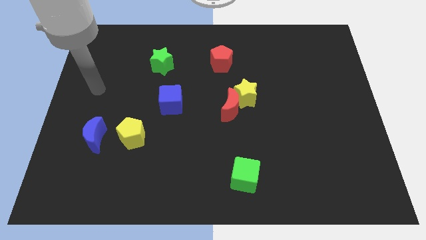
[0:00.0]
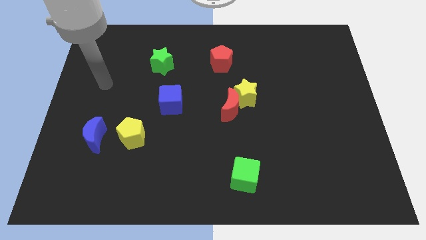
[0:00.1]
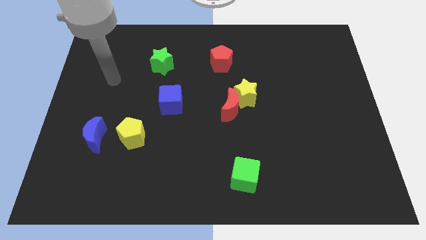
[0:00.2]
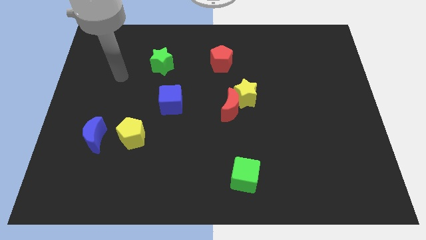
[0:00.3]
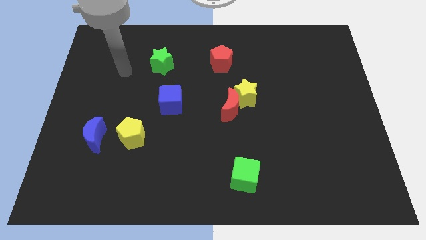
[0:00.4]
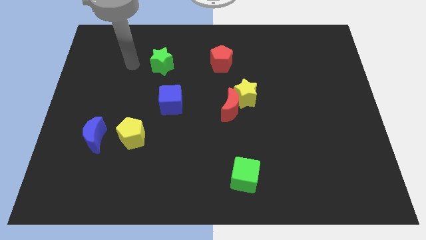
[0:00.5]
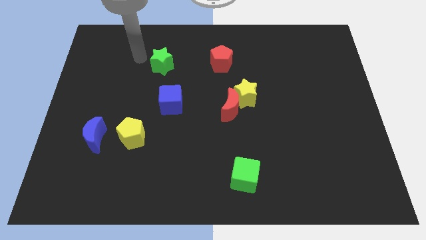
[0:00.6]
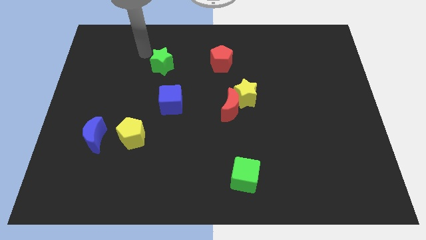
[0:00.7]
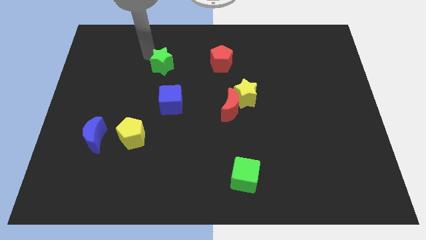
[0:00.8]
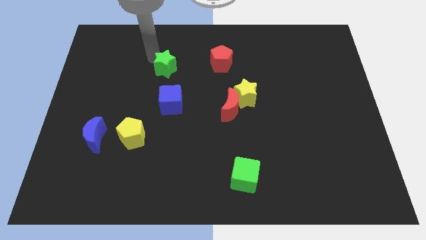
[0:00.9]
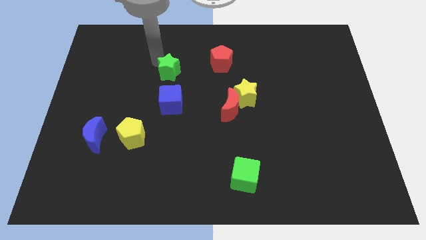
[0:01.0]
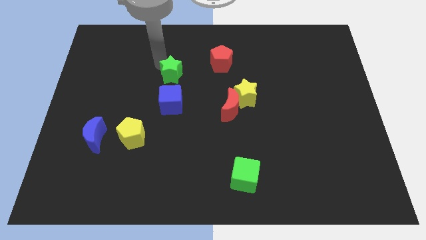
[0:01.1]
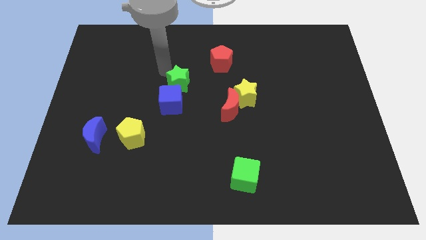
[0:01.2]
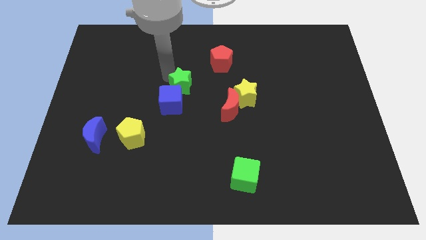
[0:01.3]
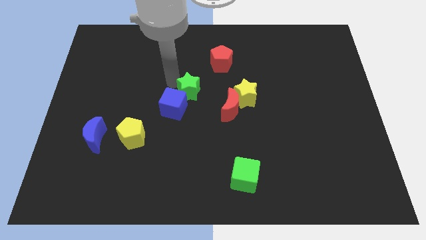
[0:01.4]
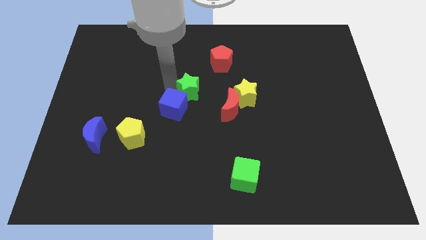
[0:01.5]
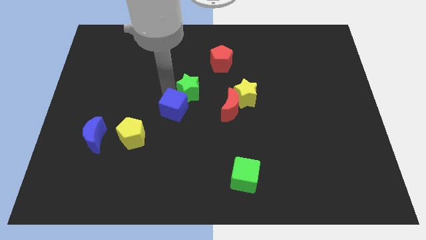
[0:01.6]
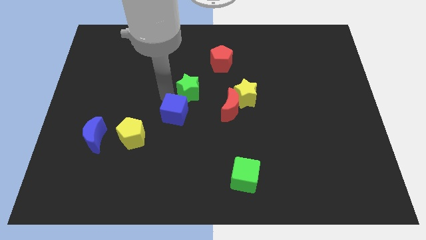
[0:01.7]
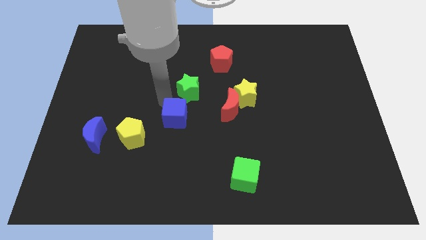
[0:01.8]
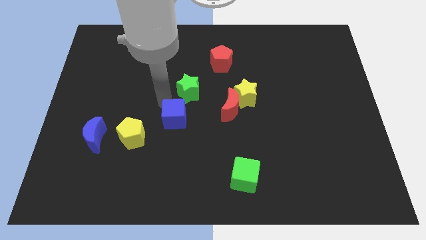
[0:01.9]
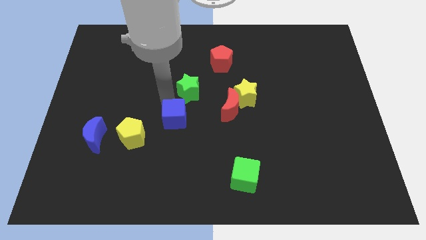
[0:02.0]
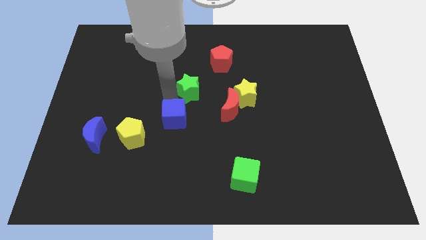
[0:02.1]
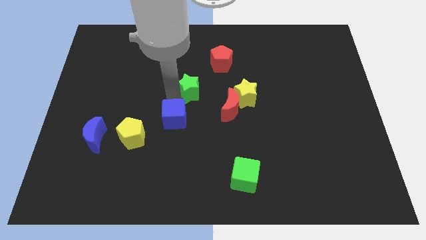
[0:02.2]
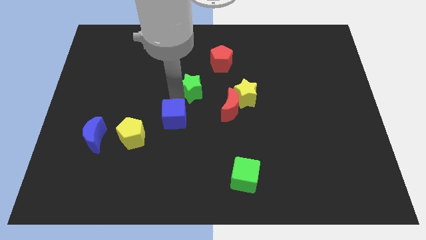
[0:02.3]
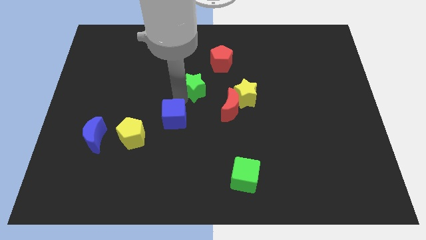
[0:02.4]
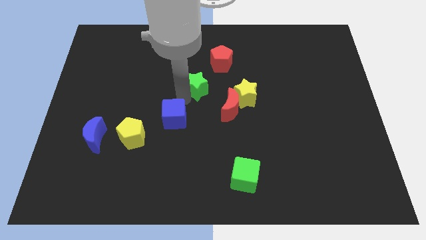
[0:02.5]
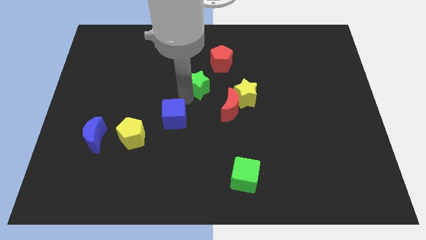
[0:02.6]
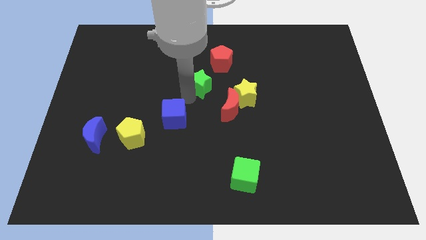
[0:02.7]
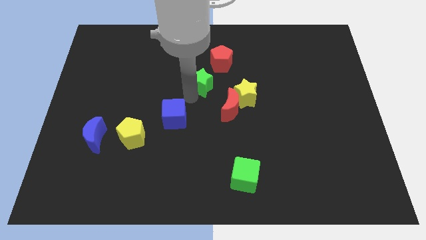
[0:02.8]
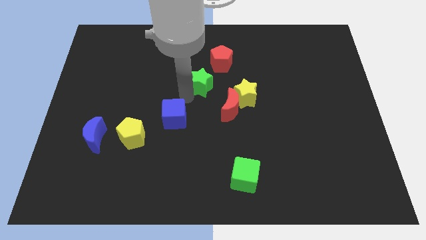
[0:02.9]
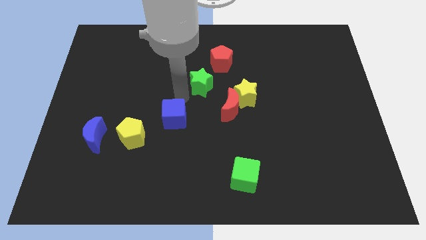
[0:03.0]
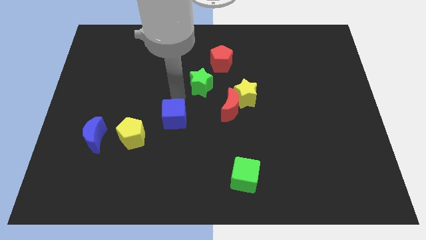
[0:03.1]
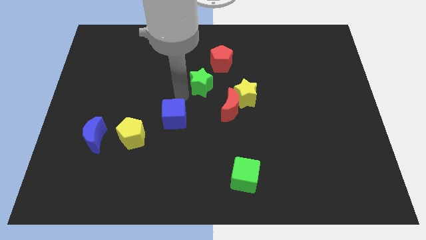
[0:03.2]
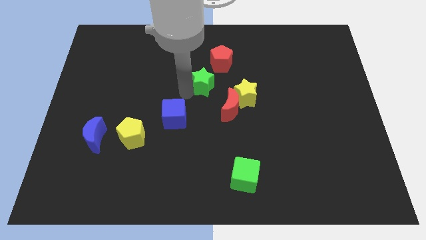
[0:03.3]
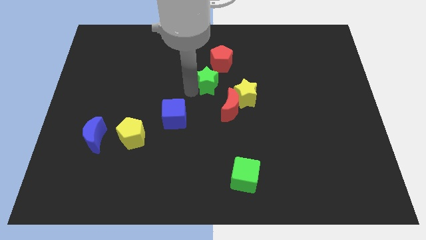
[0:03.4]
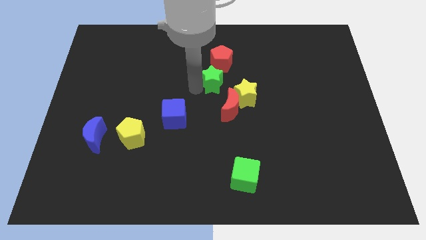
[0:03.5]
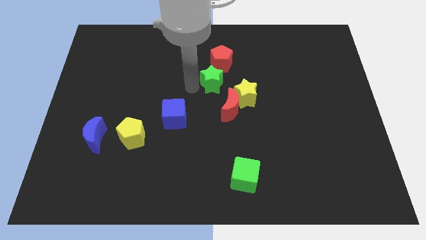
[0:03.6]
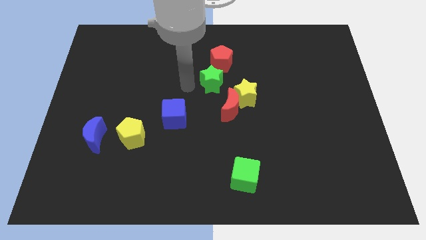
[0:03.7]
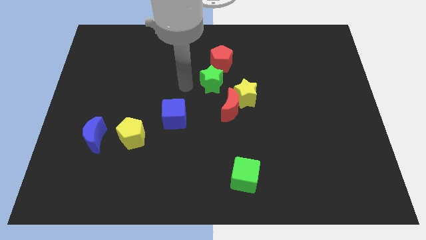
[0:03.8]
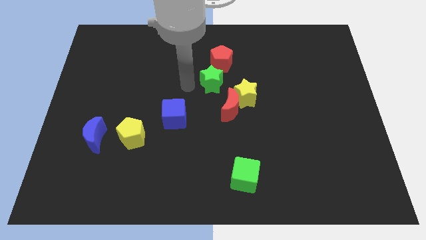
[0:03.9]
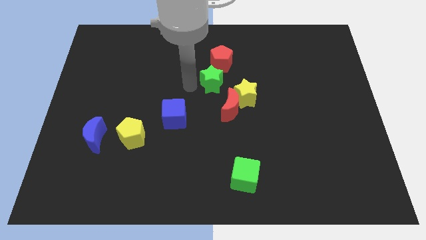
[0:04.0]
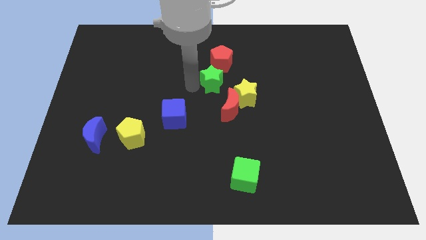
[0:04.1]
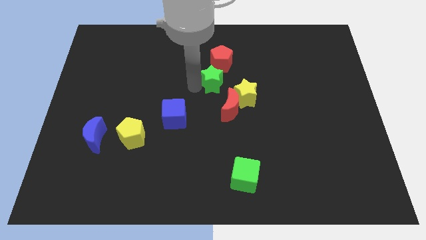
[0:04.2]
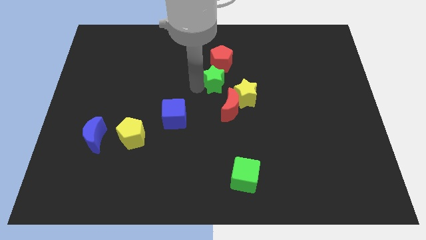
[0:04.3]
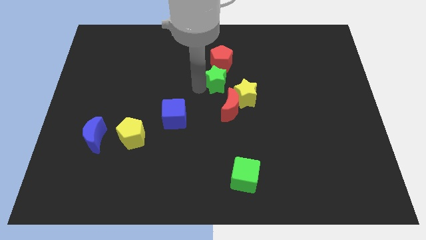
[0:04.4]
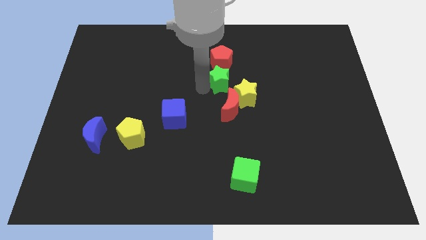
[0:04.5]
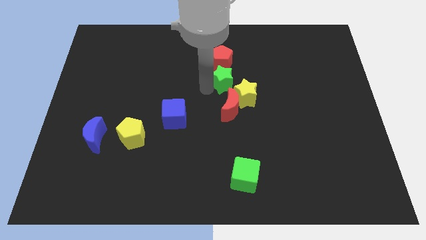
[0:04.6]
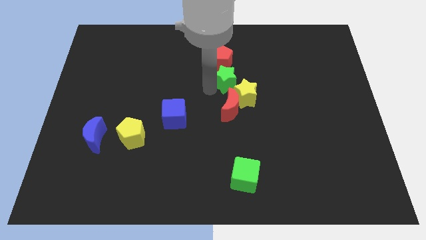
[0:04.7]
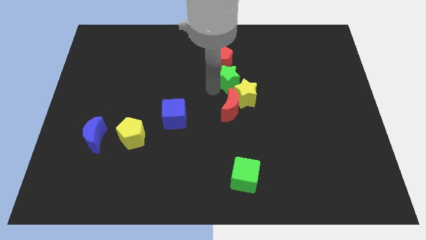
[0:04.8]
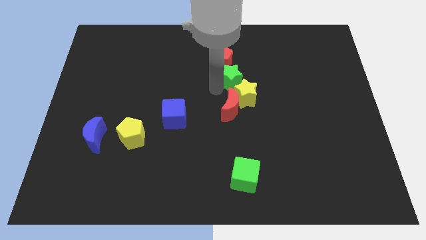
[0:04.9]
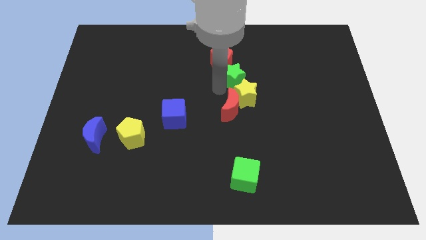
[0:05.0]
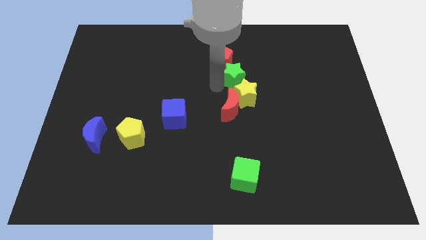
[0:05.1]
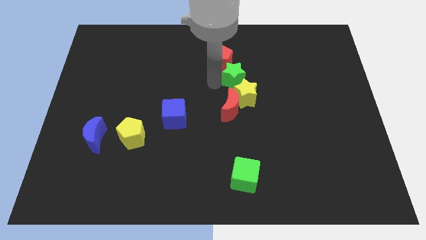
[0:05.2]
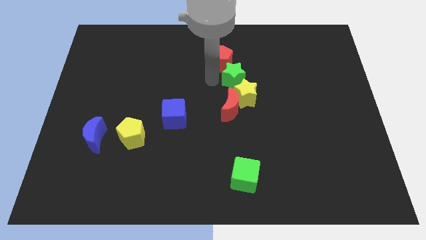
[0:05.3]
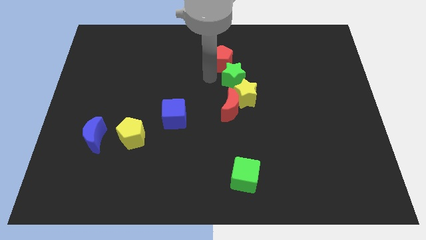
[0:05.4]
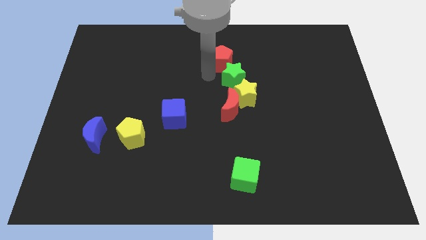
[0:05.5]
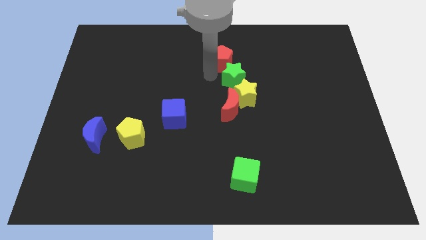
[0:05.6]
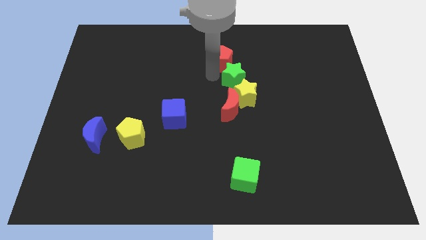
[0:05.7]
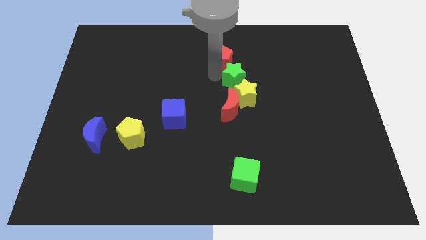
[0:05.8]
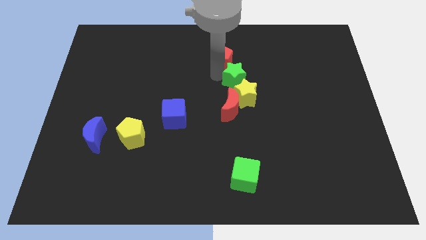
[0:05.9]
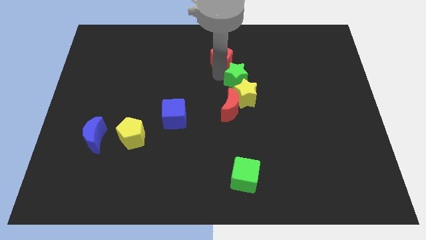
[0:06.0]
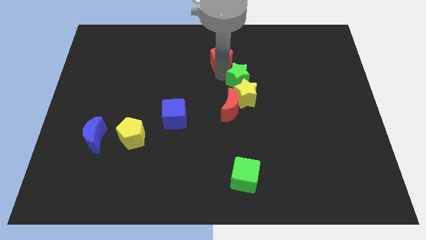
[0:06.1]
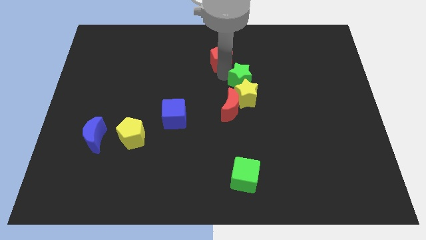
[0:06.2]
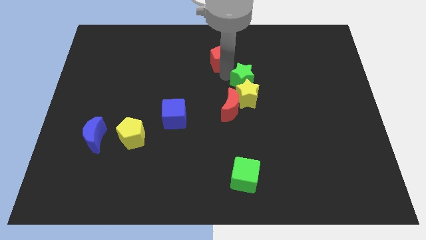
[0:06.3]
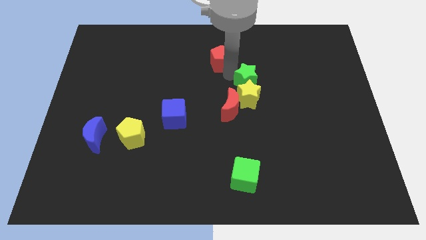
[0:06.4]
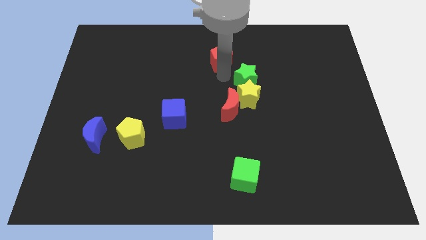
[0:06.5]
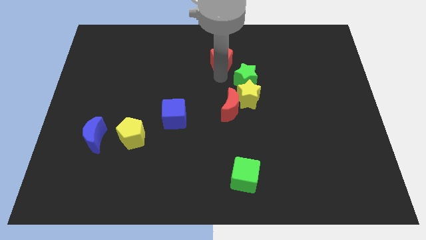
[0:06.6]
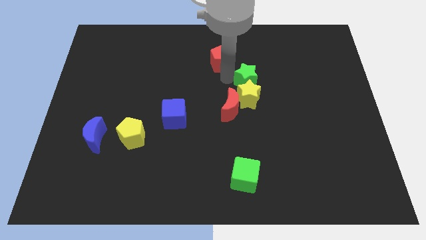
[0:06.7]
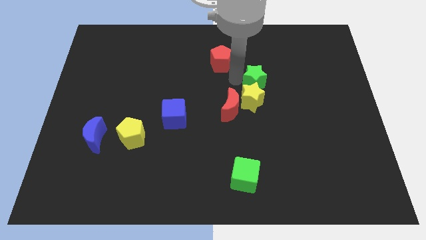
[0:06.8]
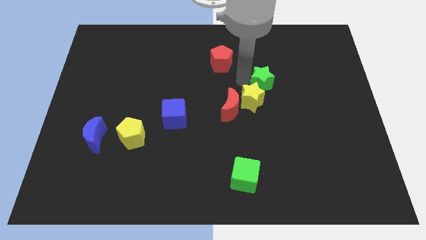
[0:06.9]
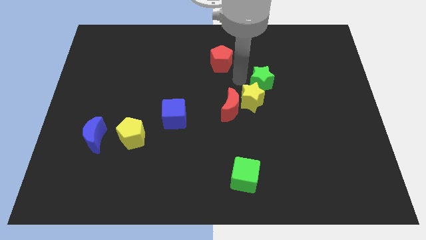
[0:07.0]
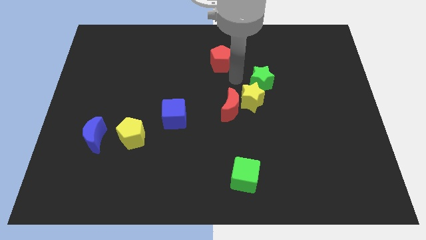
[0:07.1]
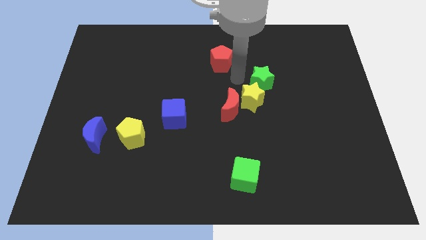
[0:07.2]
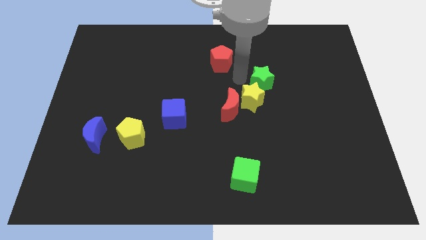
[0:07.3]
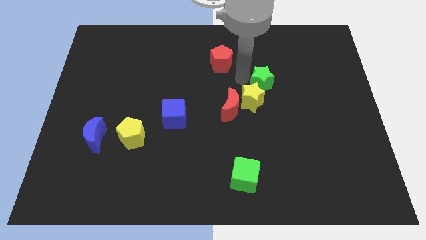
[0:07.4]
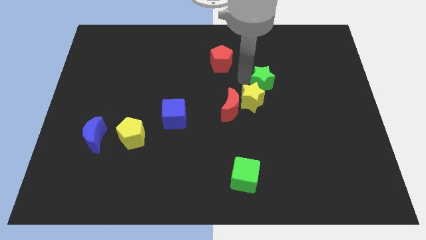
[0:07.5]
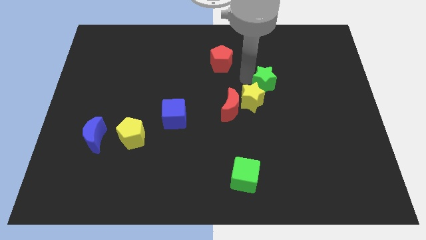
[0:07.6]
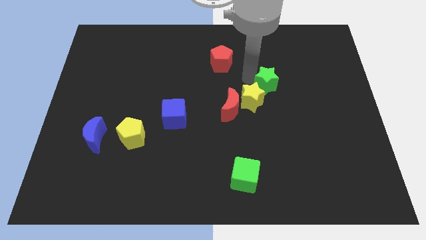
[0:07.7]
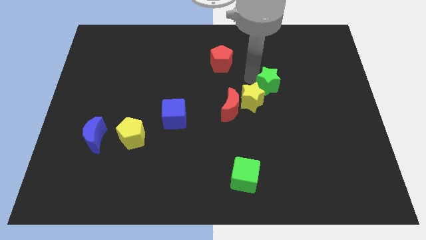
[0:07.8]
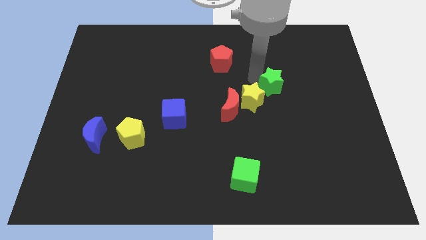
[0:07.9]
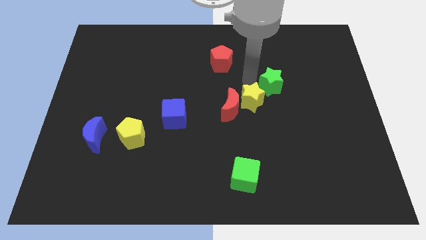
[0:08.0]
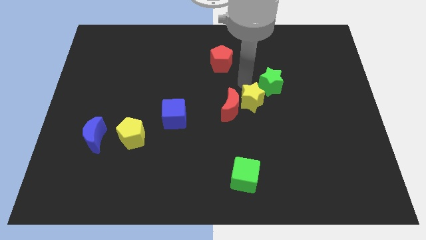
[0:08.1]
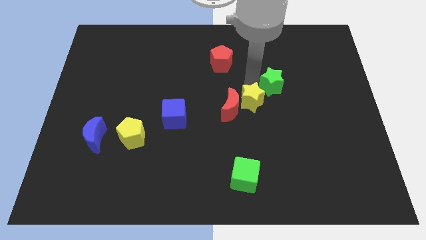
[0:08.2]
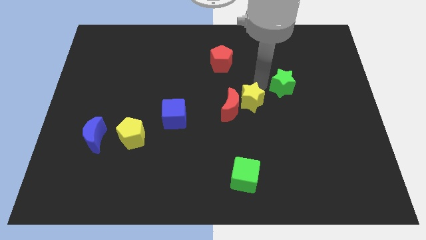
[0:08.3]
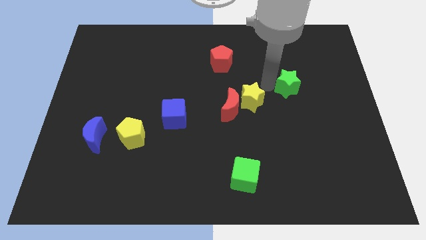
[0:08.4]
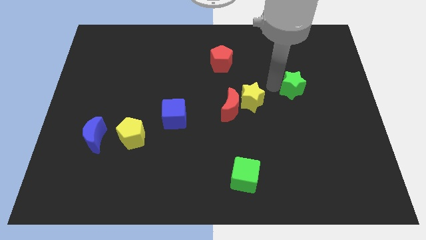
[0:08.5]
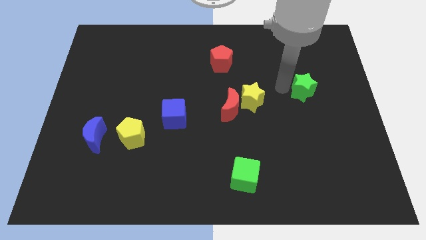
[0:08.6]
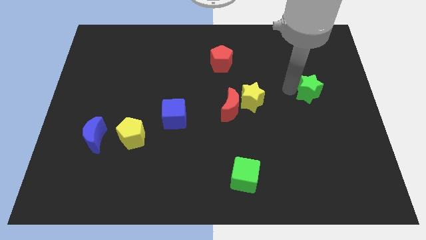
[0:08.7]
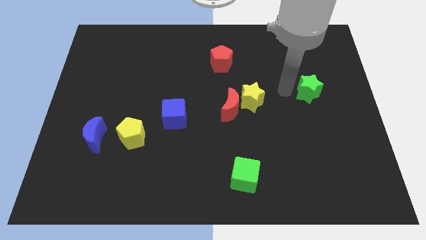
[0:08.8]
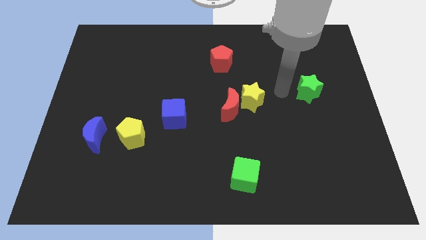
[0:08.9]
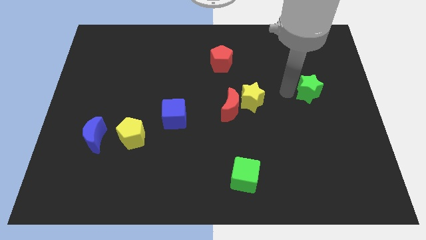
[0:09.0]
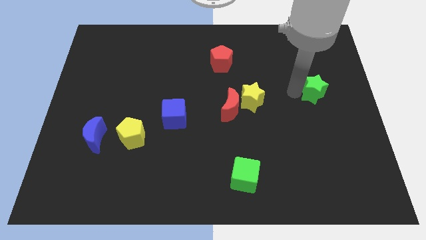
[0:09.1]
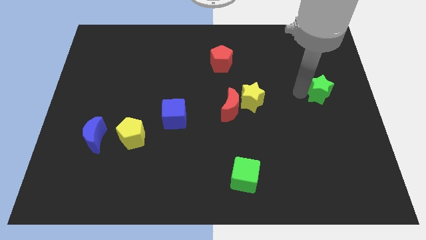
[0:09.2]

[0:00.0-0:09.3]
put the green star to the center right
